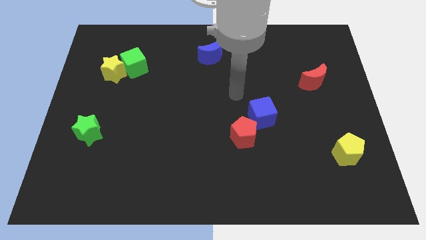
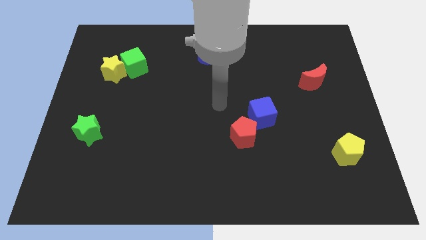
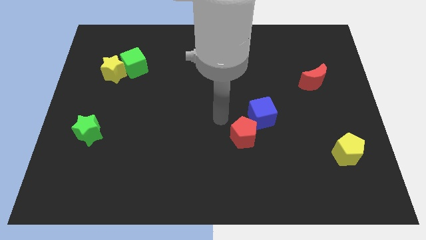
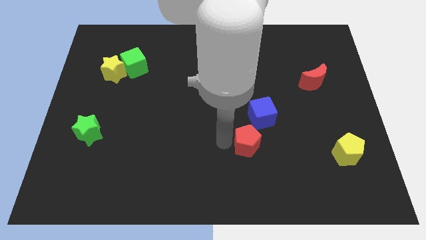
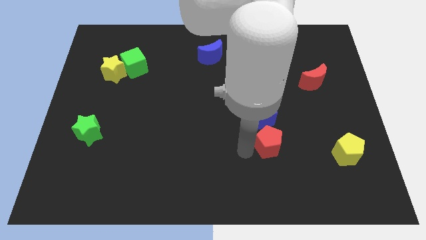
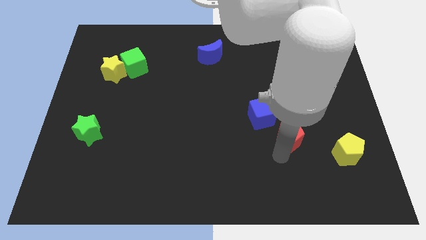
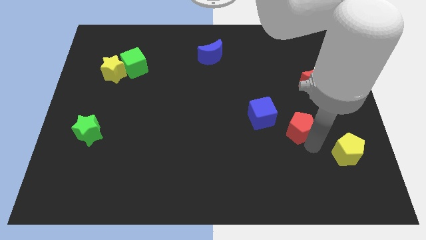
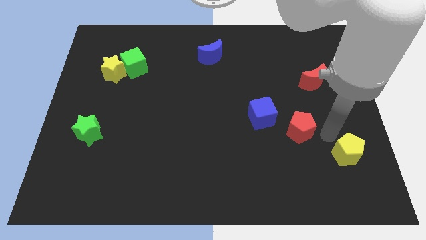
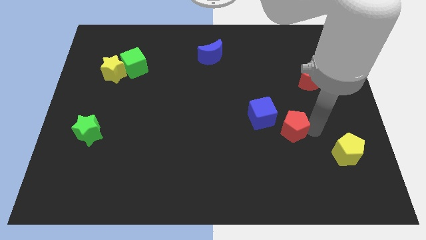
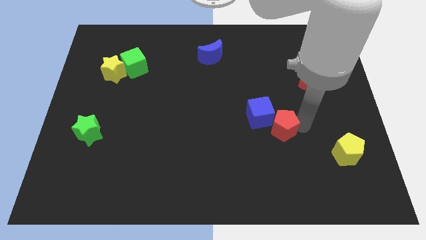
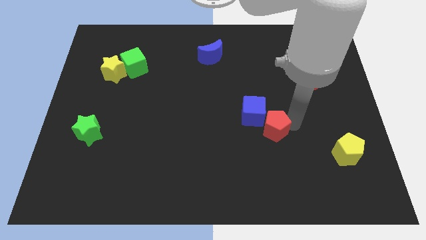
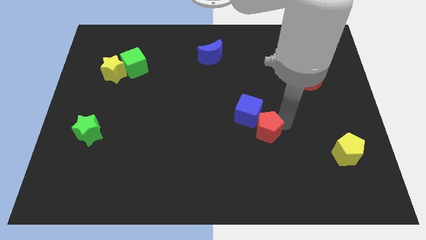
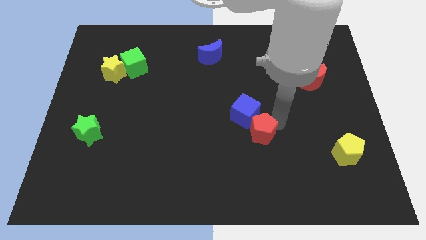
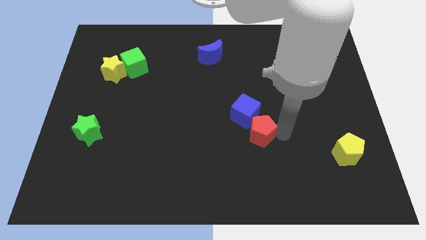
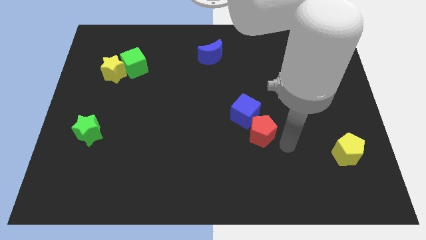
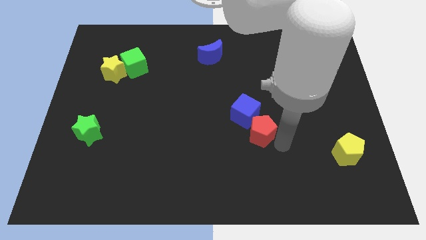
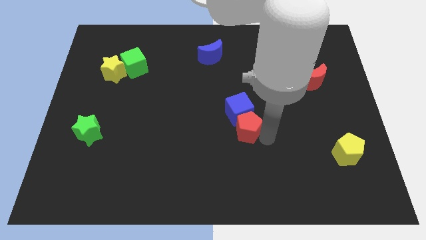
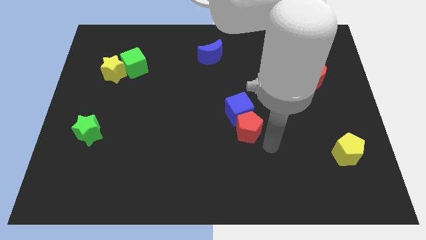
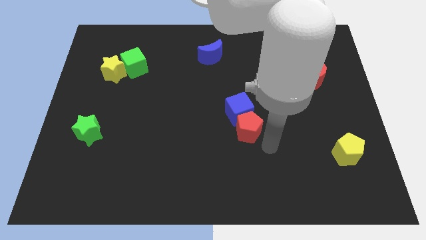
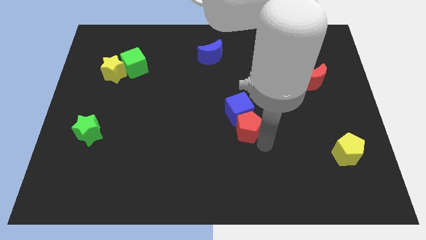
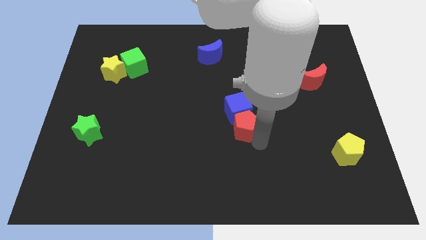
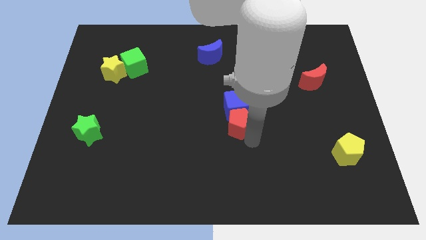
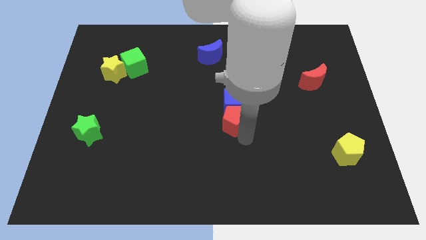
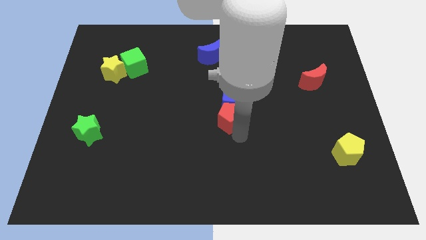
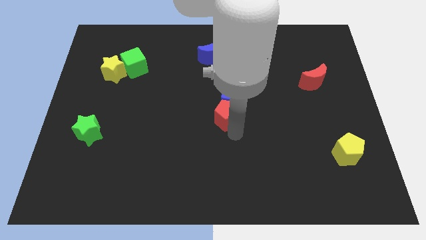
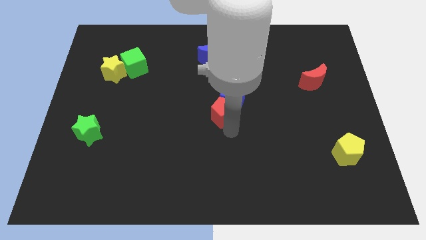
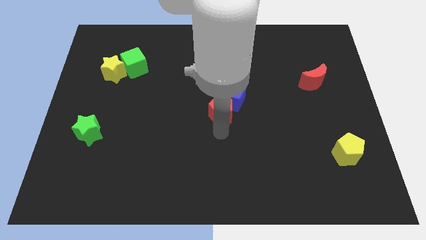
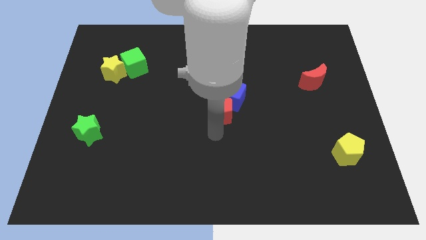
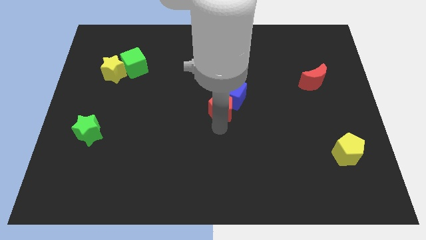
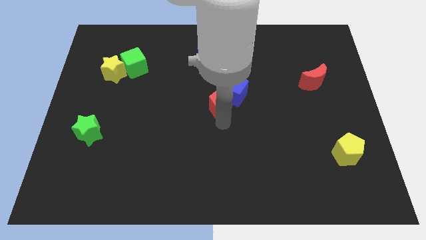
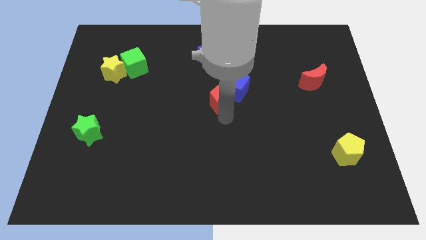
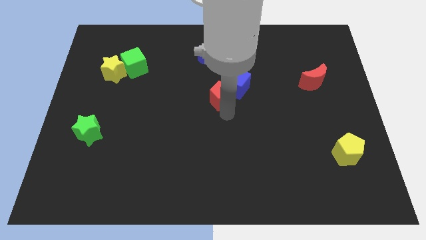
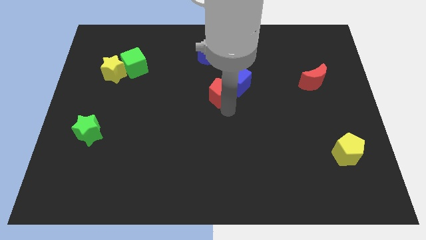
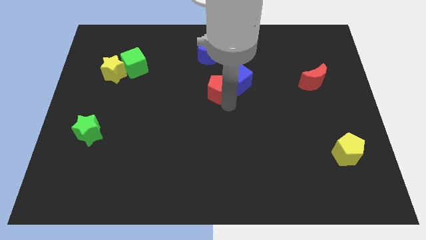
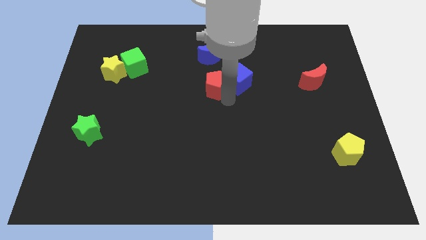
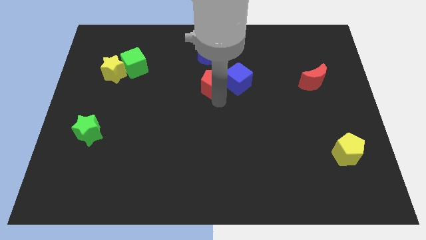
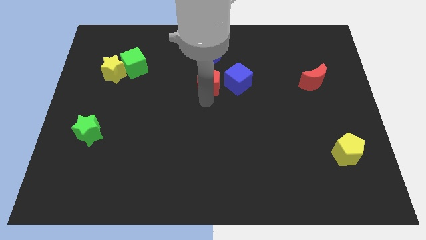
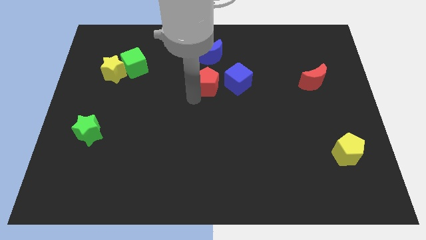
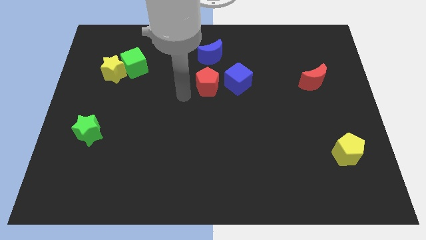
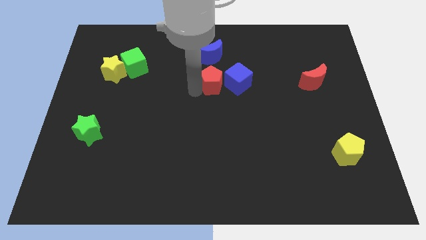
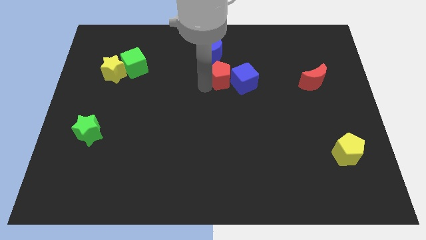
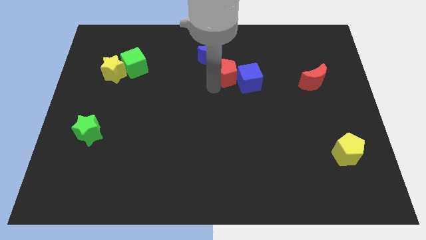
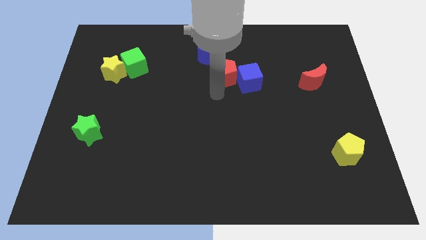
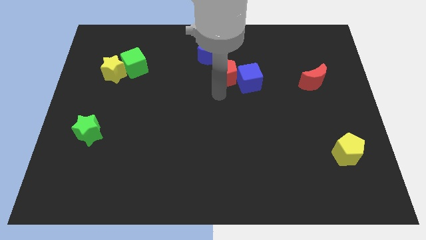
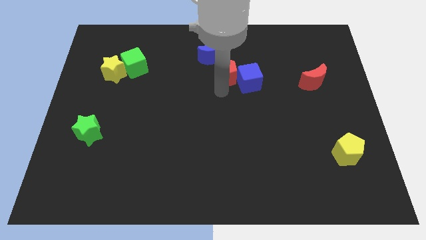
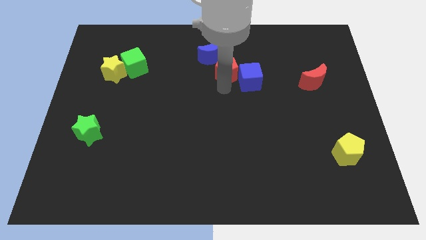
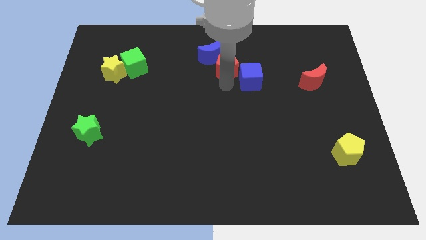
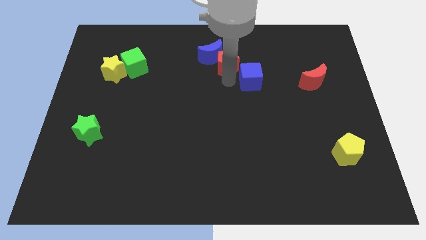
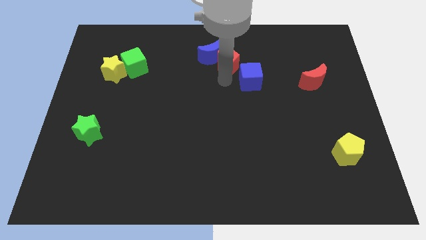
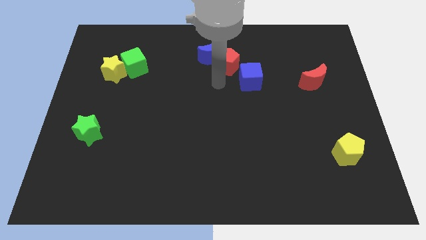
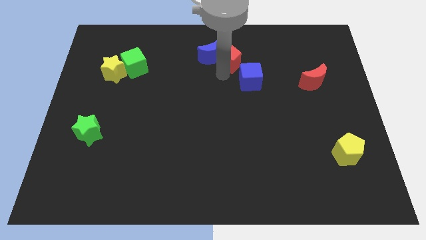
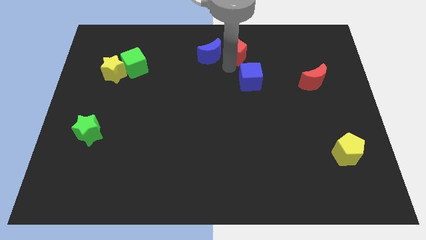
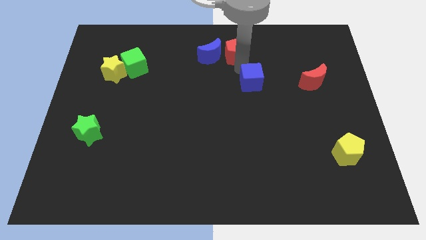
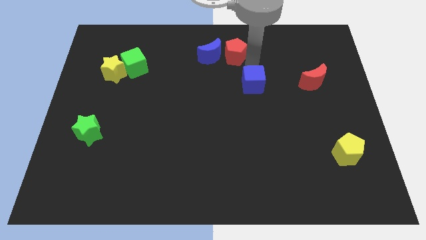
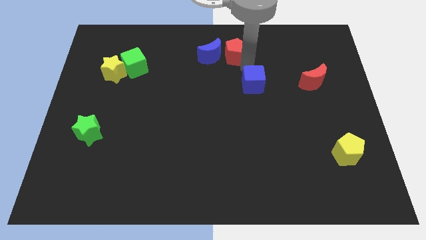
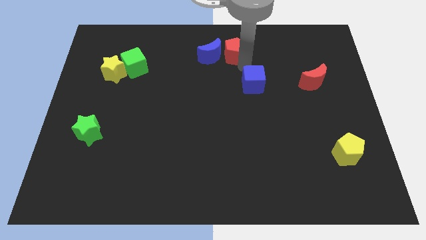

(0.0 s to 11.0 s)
slide the red pentagon to the towards your base
